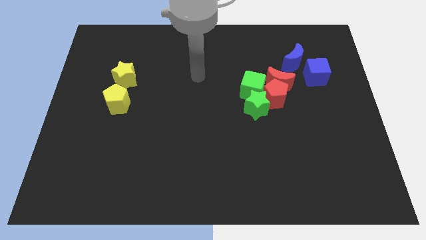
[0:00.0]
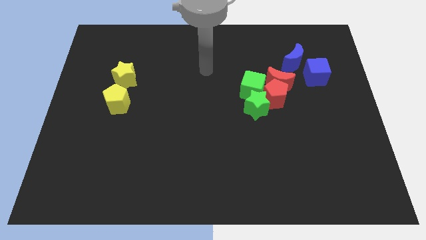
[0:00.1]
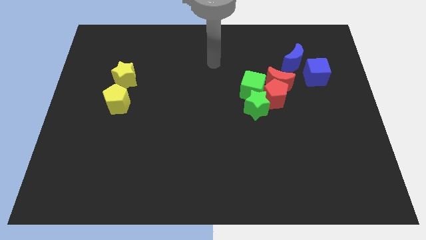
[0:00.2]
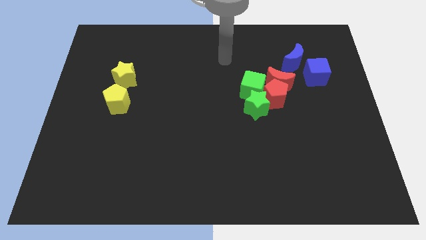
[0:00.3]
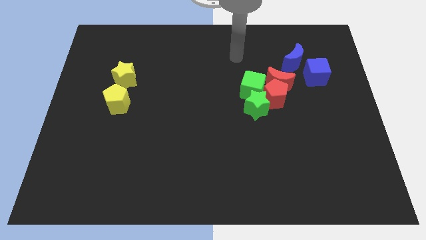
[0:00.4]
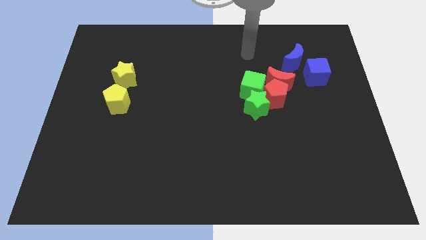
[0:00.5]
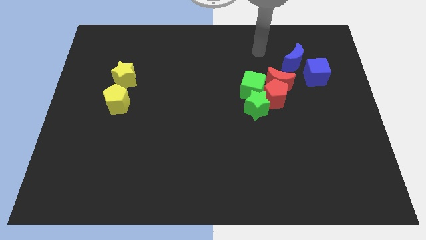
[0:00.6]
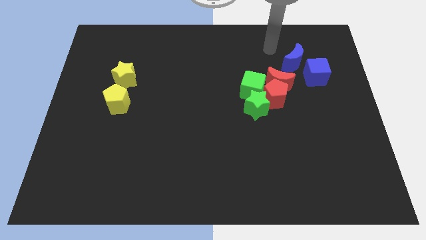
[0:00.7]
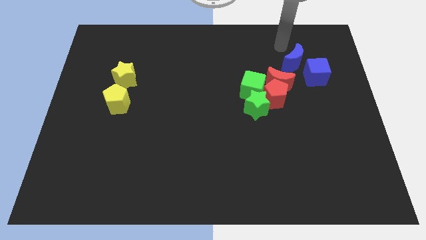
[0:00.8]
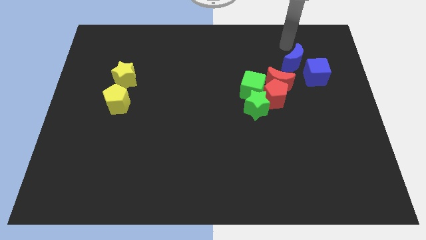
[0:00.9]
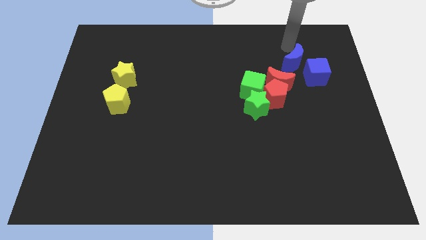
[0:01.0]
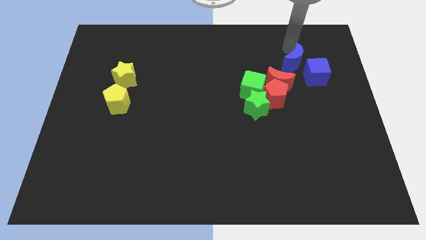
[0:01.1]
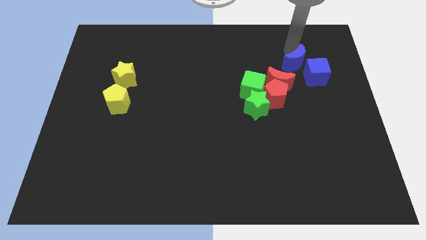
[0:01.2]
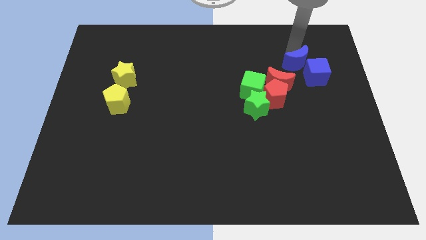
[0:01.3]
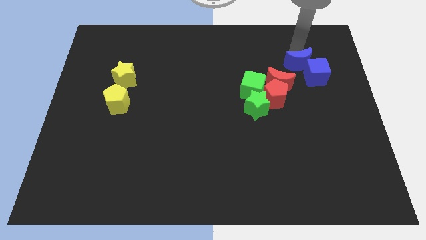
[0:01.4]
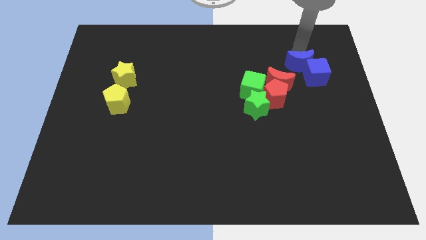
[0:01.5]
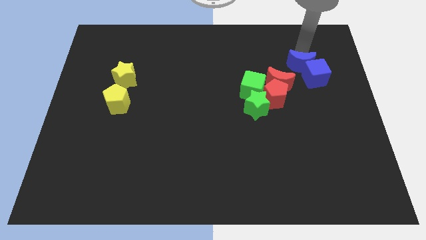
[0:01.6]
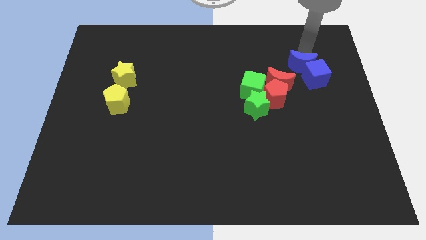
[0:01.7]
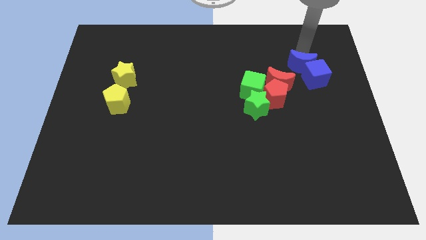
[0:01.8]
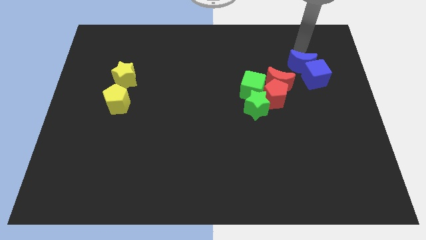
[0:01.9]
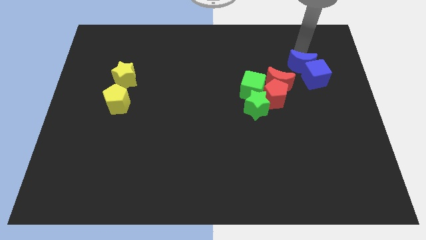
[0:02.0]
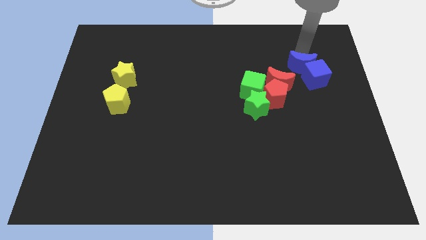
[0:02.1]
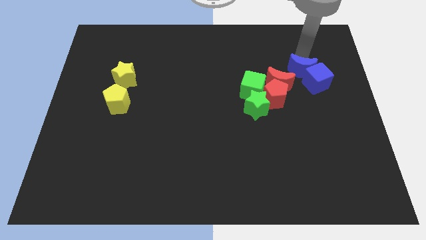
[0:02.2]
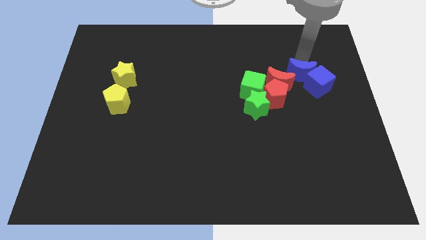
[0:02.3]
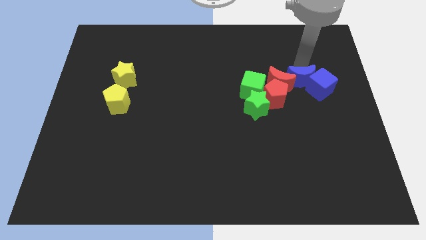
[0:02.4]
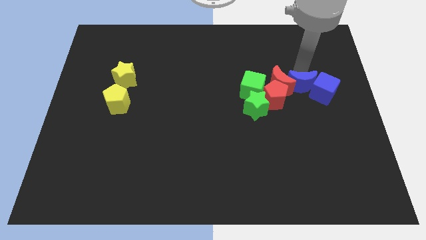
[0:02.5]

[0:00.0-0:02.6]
slide the blue moon a bit down

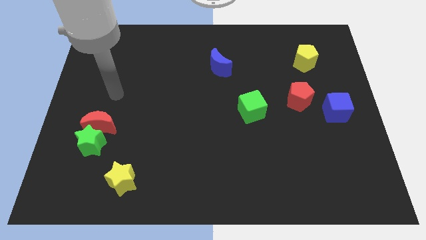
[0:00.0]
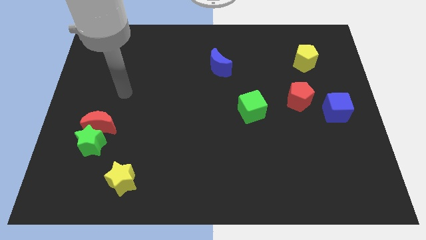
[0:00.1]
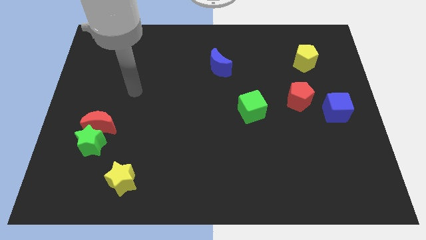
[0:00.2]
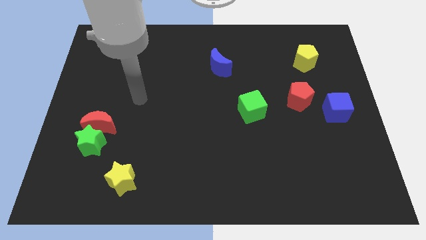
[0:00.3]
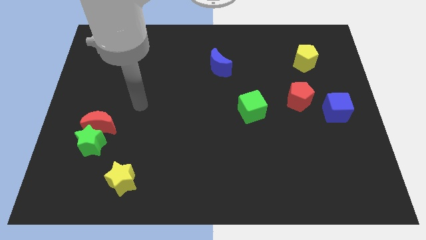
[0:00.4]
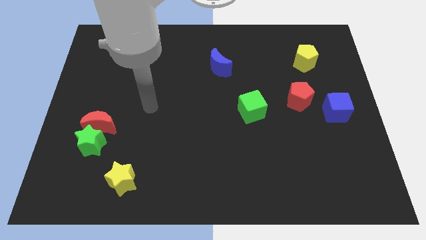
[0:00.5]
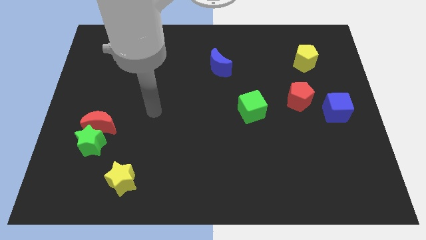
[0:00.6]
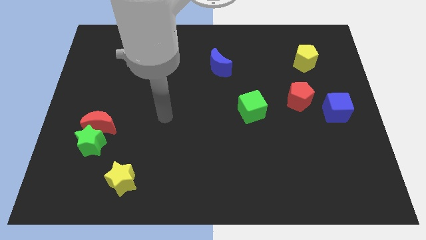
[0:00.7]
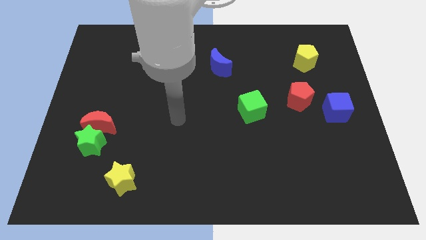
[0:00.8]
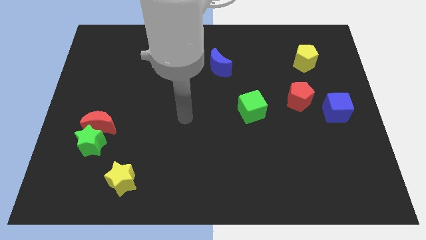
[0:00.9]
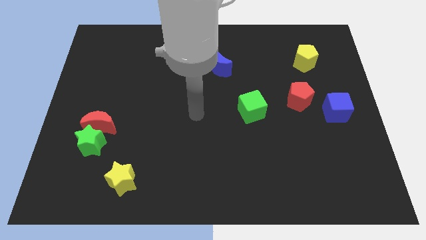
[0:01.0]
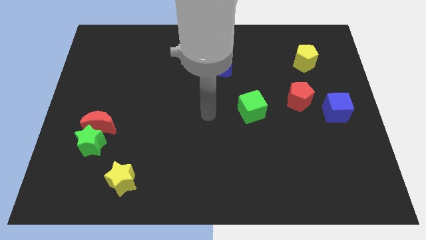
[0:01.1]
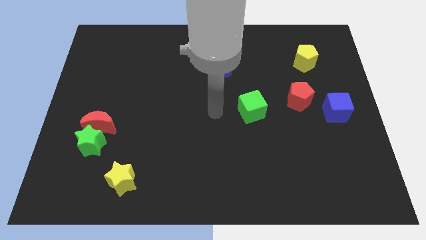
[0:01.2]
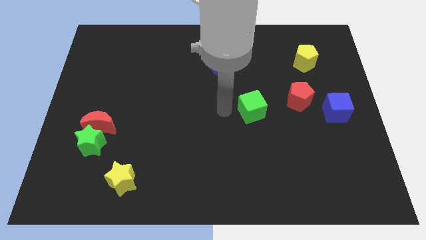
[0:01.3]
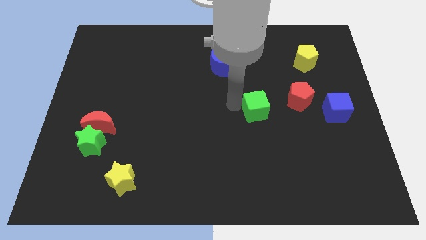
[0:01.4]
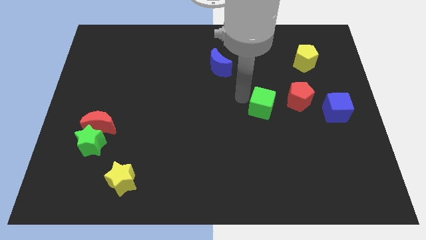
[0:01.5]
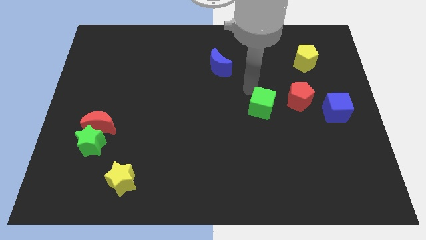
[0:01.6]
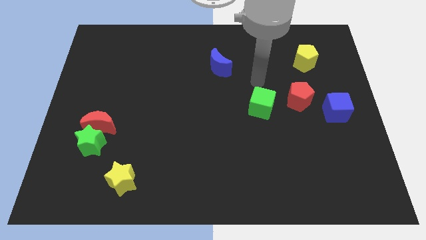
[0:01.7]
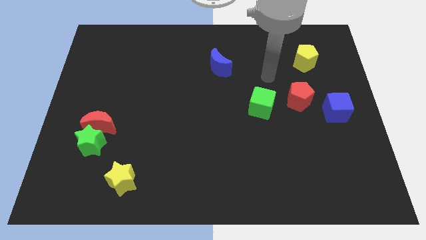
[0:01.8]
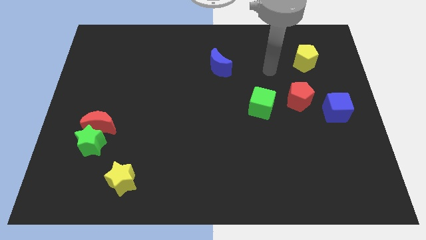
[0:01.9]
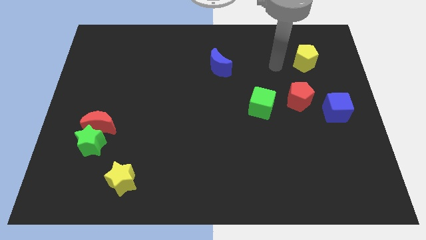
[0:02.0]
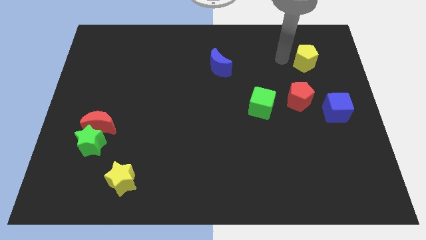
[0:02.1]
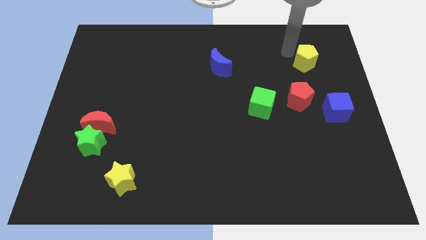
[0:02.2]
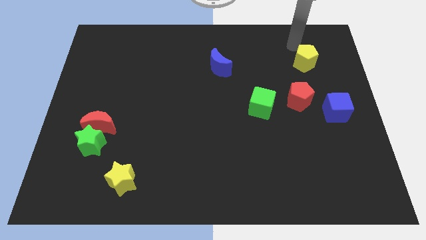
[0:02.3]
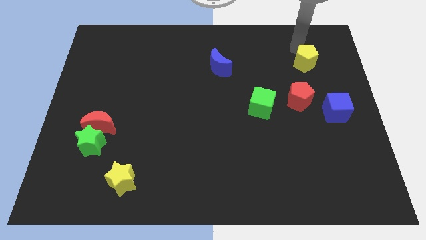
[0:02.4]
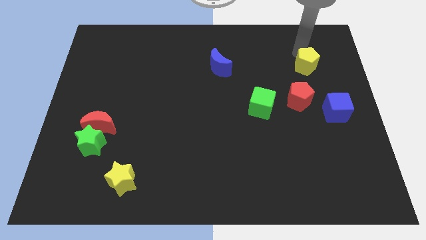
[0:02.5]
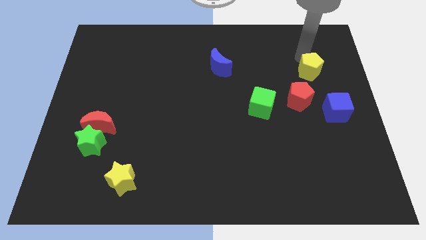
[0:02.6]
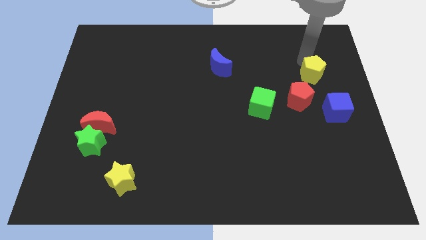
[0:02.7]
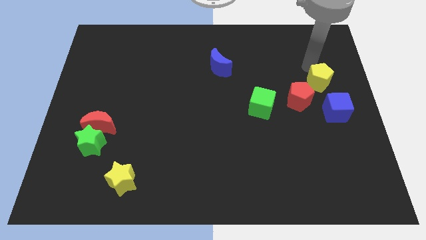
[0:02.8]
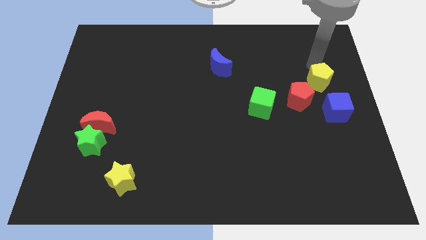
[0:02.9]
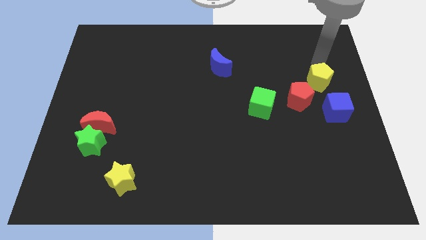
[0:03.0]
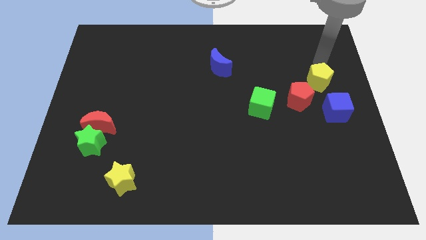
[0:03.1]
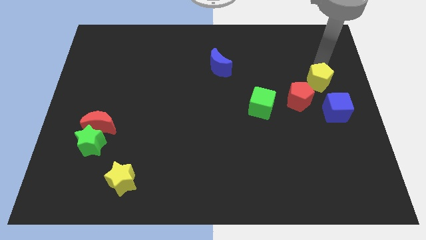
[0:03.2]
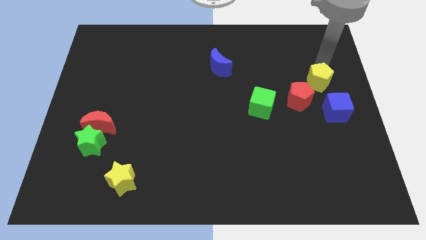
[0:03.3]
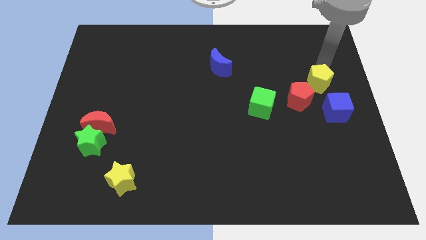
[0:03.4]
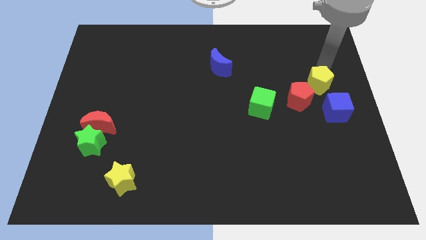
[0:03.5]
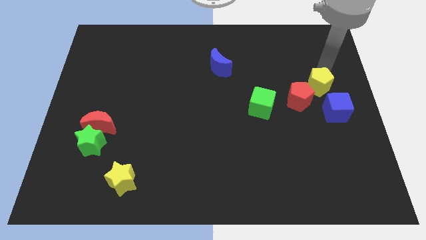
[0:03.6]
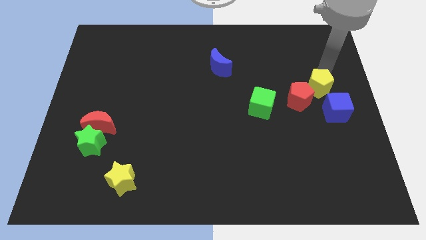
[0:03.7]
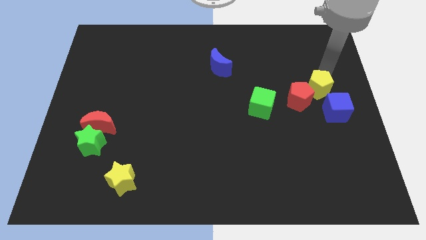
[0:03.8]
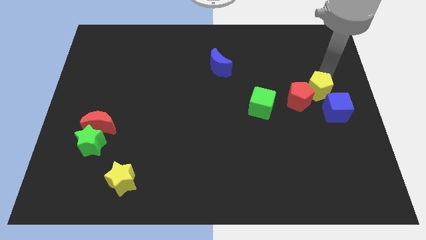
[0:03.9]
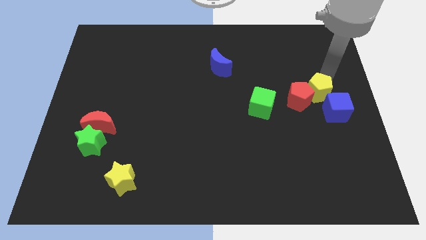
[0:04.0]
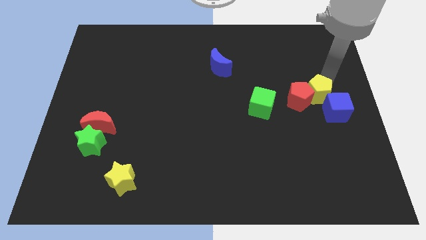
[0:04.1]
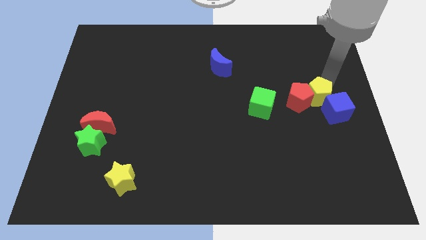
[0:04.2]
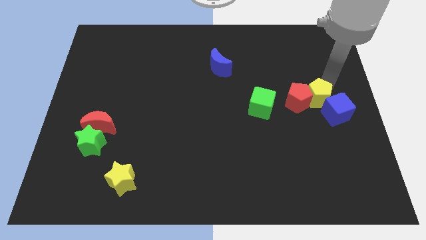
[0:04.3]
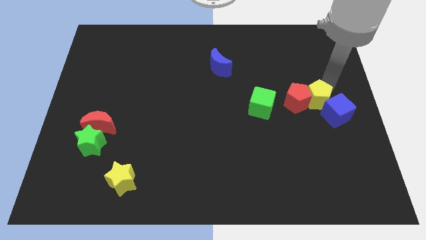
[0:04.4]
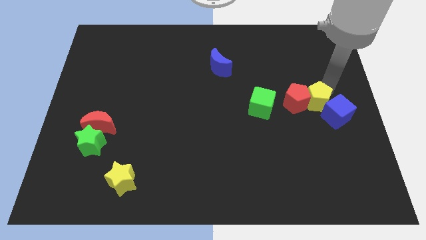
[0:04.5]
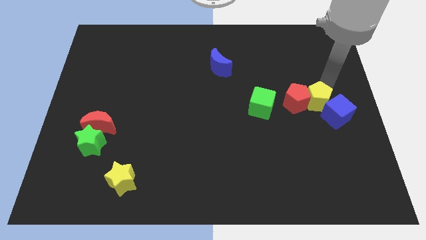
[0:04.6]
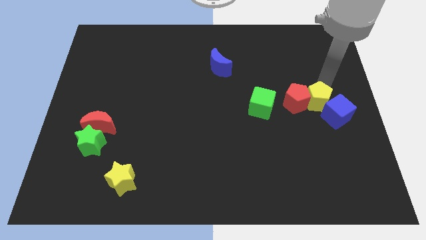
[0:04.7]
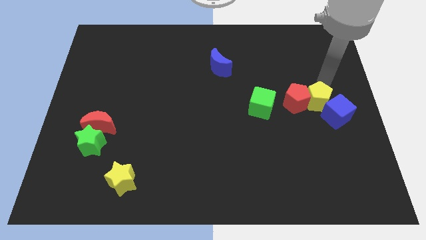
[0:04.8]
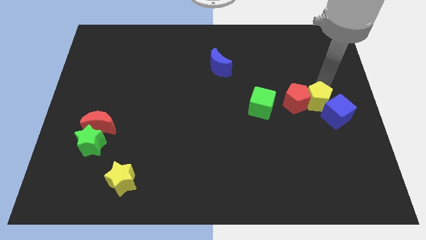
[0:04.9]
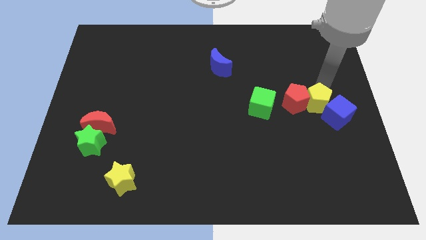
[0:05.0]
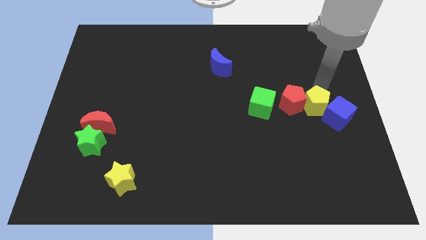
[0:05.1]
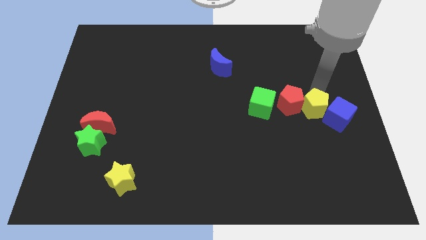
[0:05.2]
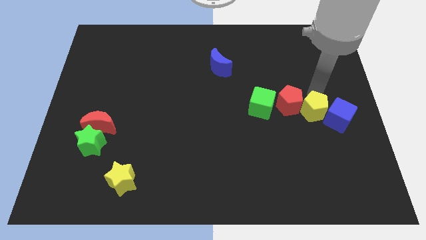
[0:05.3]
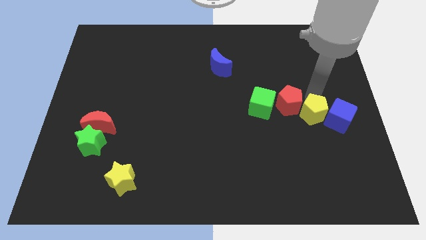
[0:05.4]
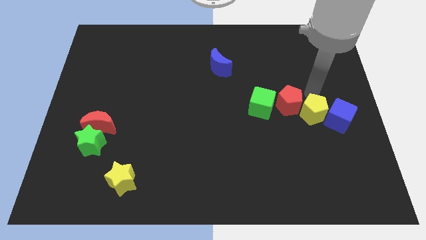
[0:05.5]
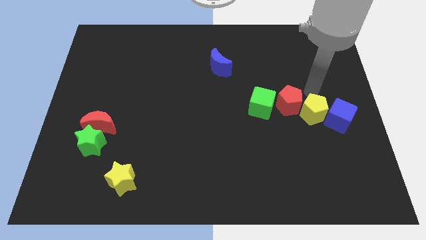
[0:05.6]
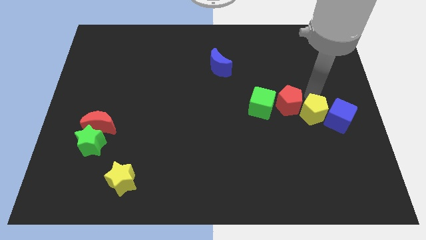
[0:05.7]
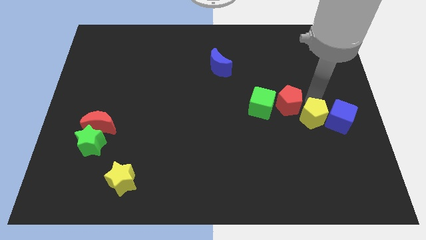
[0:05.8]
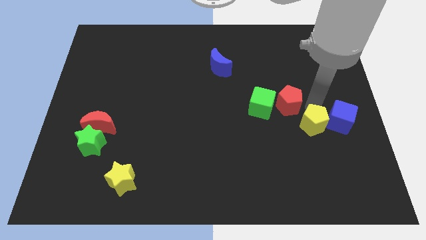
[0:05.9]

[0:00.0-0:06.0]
slide the yellow pentagon down
